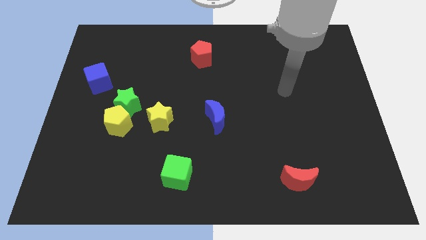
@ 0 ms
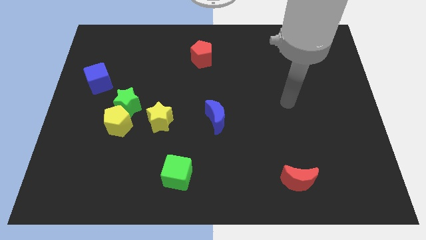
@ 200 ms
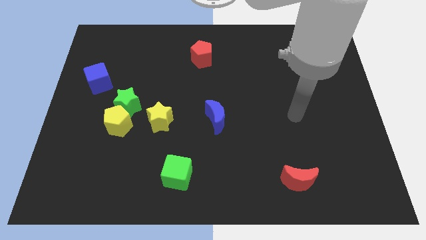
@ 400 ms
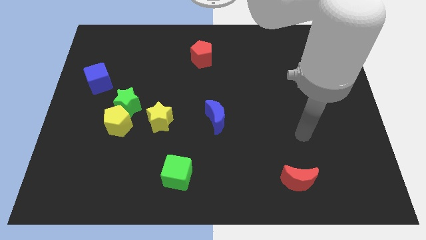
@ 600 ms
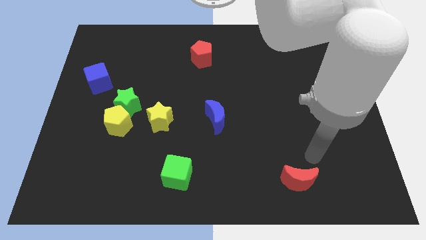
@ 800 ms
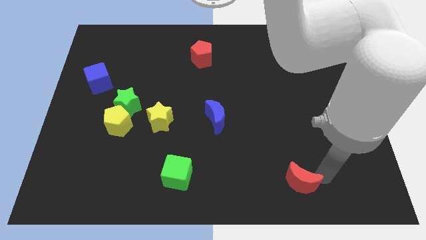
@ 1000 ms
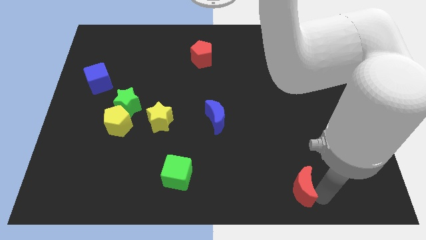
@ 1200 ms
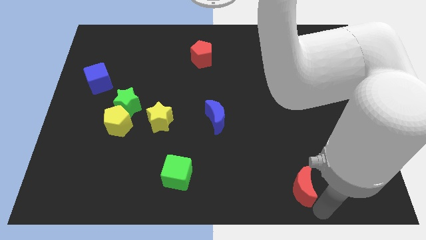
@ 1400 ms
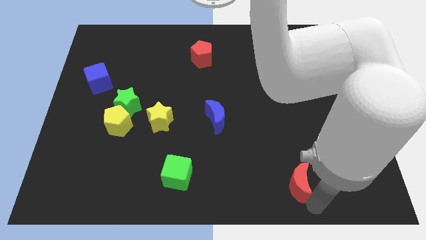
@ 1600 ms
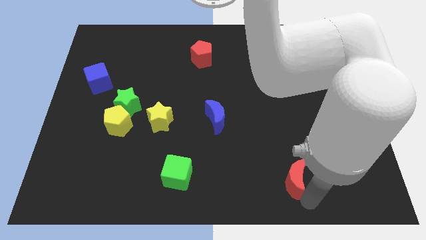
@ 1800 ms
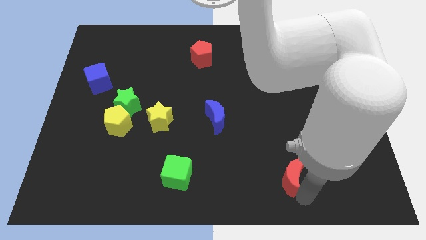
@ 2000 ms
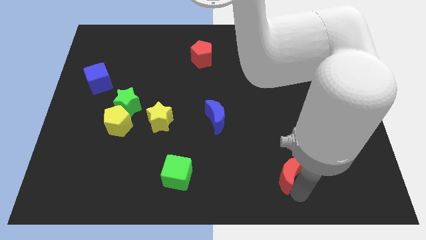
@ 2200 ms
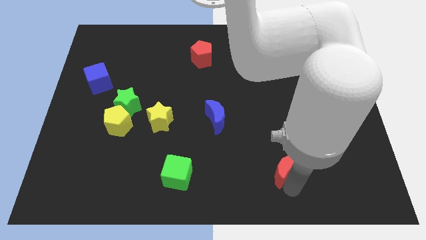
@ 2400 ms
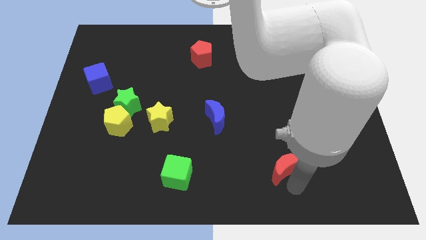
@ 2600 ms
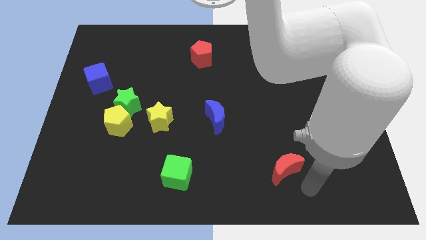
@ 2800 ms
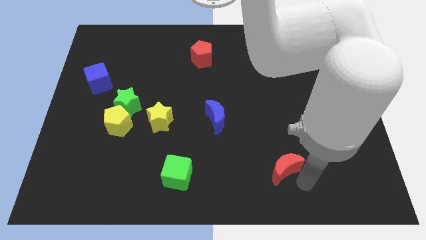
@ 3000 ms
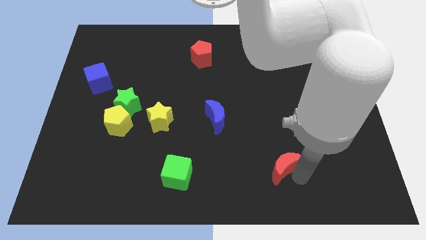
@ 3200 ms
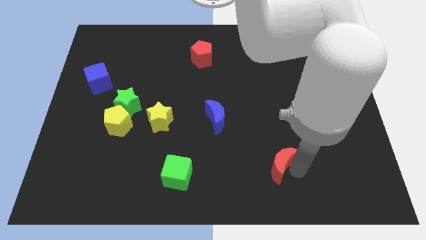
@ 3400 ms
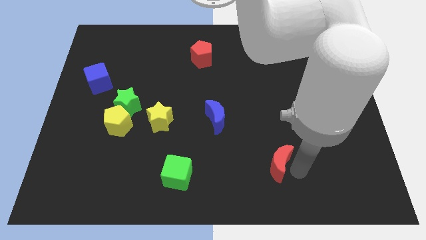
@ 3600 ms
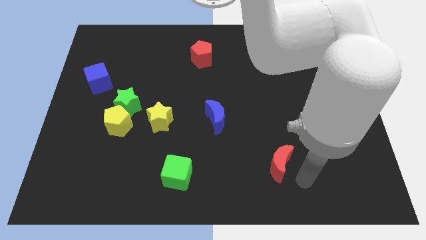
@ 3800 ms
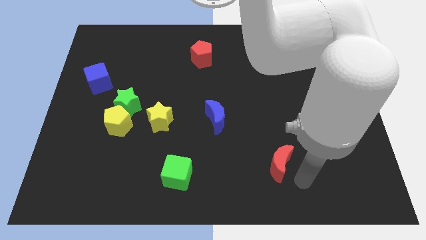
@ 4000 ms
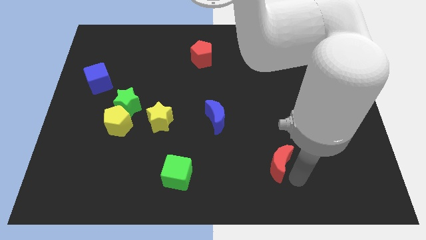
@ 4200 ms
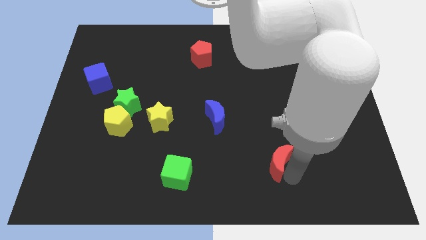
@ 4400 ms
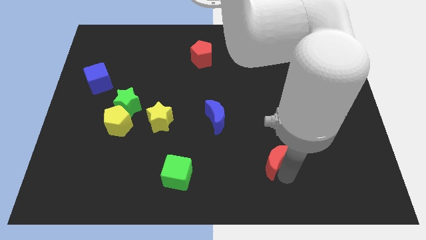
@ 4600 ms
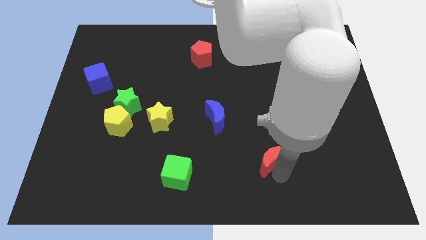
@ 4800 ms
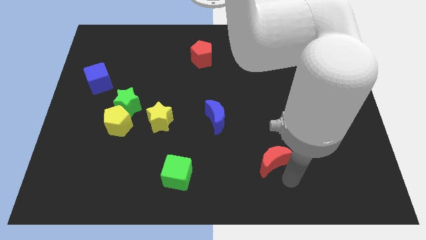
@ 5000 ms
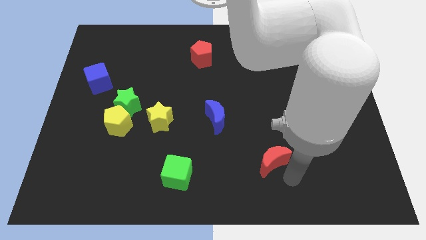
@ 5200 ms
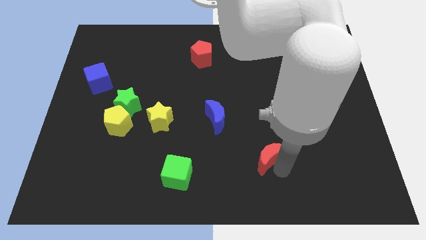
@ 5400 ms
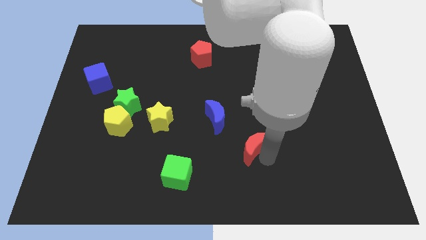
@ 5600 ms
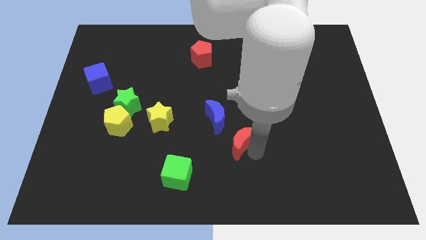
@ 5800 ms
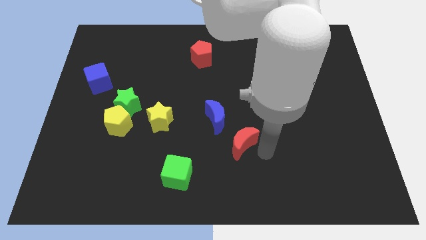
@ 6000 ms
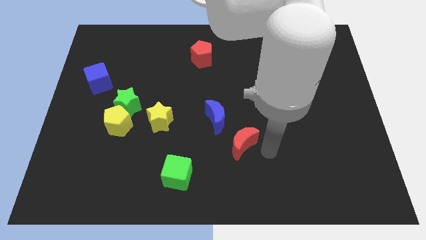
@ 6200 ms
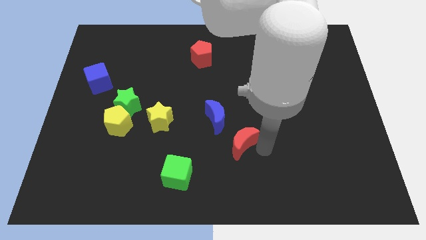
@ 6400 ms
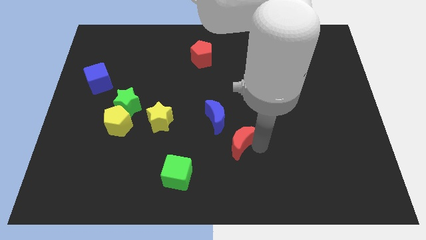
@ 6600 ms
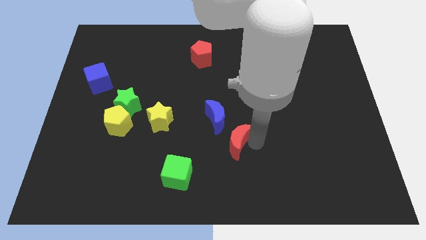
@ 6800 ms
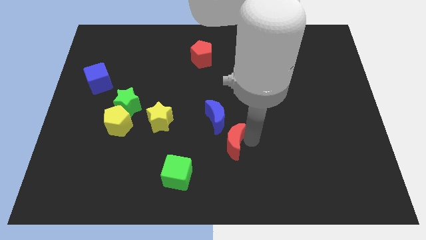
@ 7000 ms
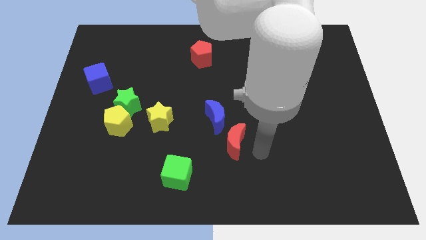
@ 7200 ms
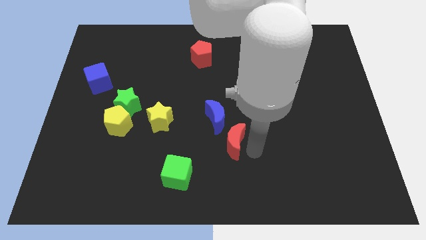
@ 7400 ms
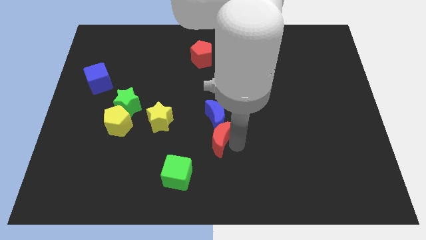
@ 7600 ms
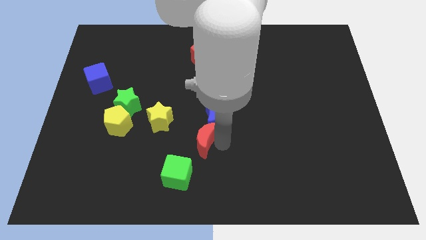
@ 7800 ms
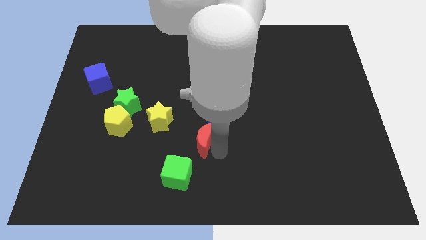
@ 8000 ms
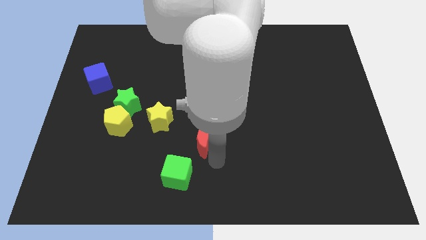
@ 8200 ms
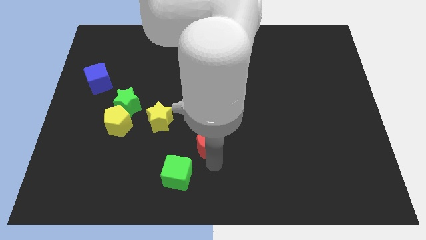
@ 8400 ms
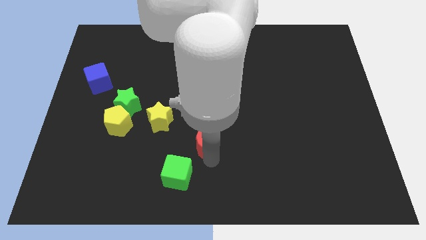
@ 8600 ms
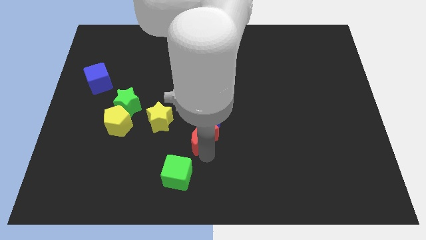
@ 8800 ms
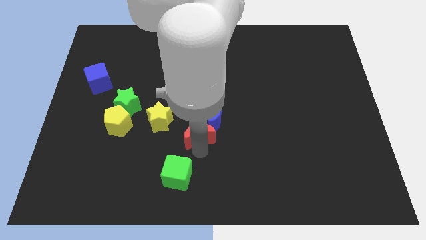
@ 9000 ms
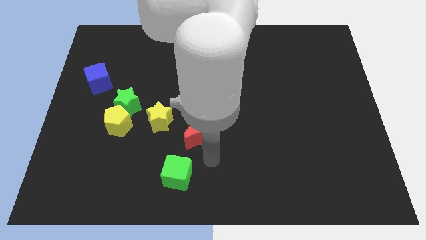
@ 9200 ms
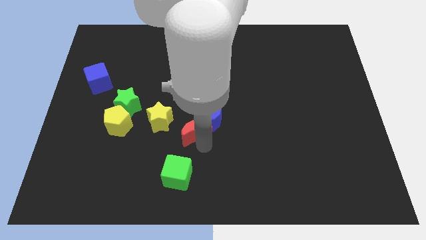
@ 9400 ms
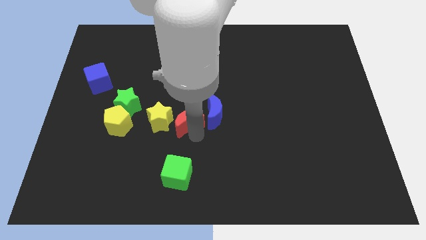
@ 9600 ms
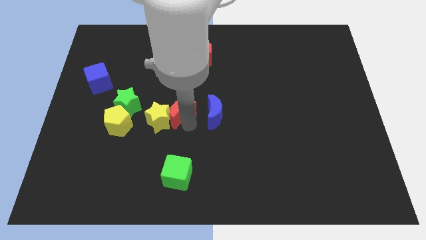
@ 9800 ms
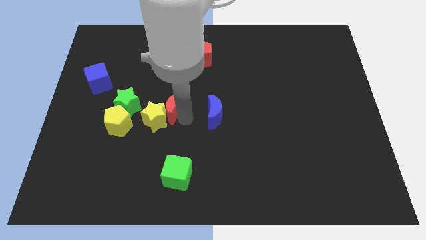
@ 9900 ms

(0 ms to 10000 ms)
put the red moon above the yellow star

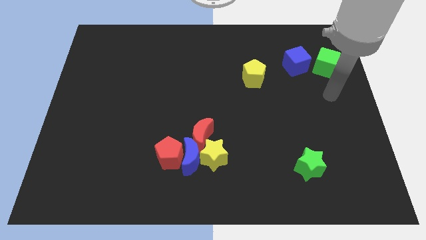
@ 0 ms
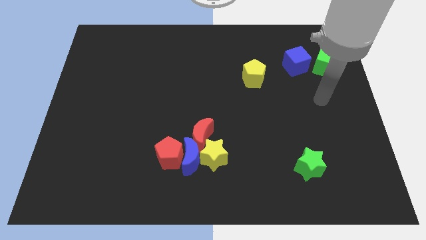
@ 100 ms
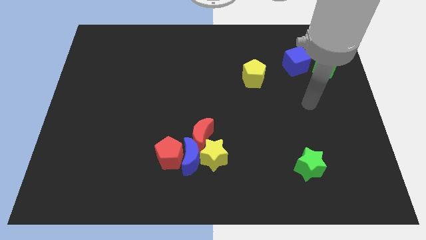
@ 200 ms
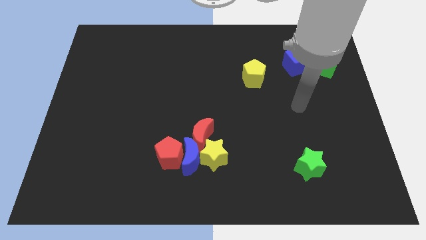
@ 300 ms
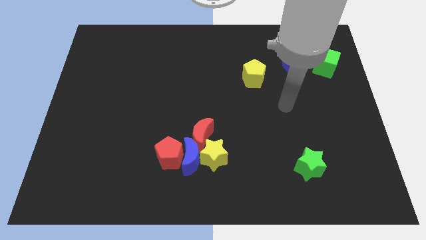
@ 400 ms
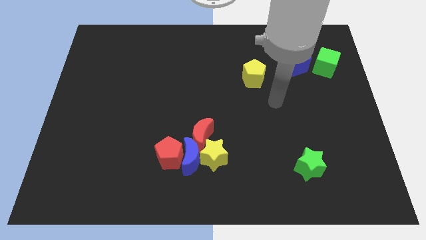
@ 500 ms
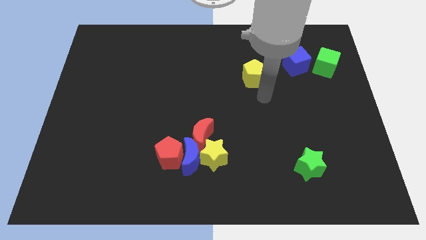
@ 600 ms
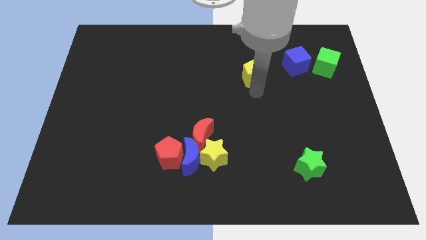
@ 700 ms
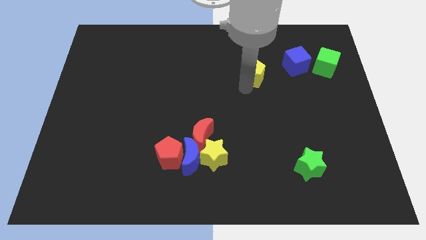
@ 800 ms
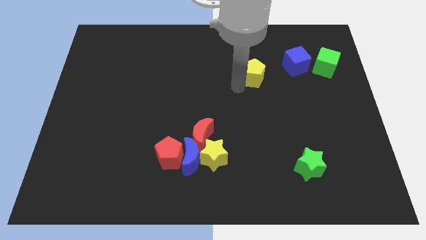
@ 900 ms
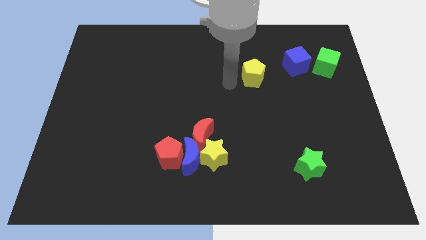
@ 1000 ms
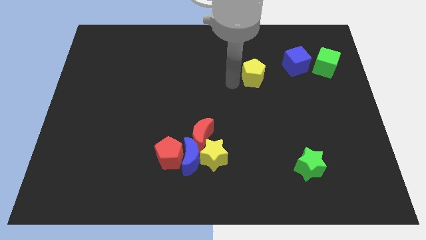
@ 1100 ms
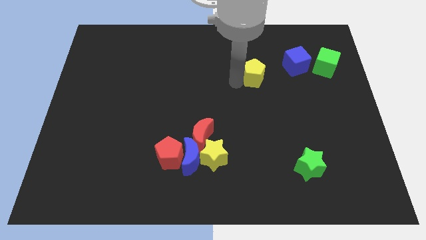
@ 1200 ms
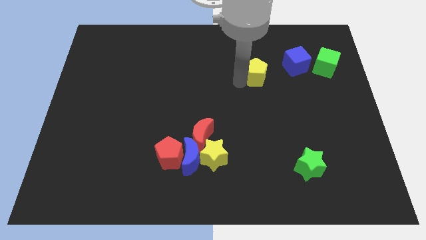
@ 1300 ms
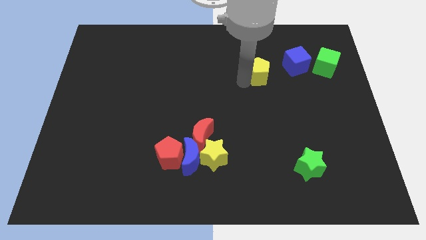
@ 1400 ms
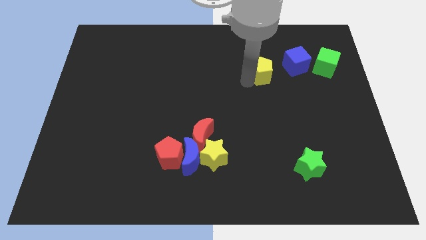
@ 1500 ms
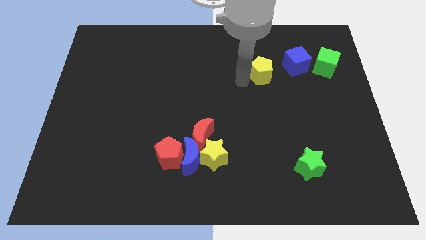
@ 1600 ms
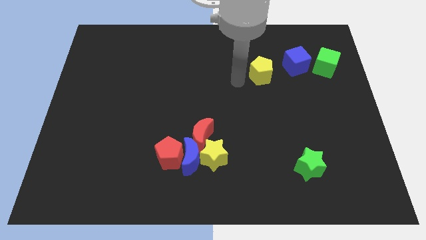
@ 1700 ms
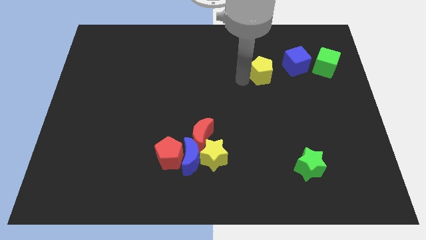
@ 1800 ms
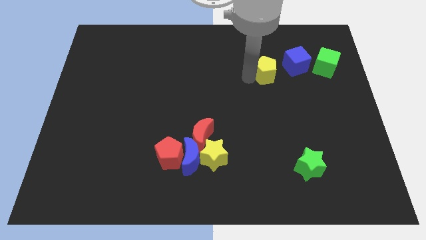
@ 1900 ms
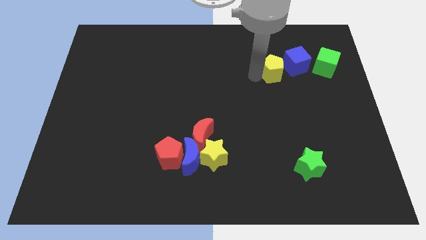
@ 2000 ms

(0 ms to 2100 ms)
slide the yellow pentagon just left of the green cube

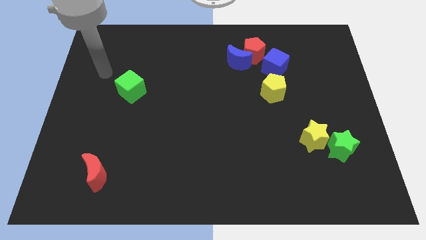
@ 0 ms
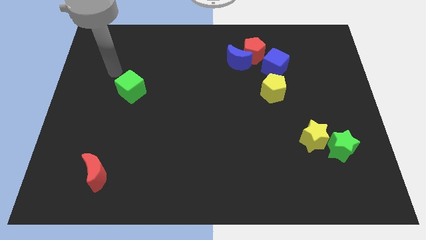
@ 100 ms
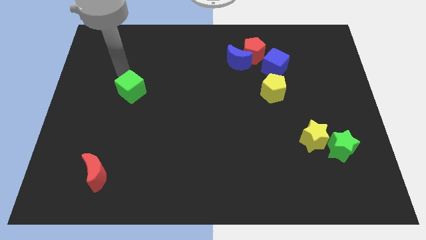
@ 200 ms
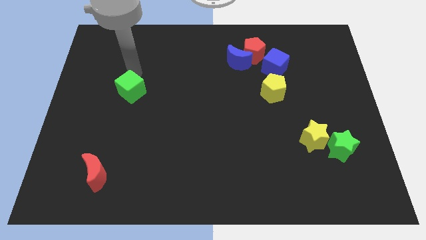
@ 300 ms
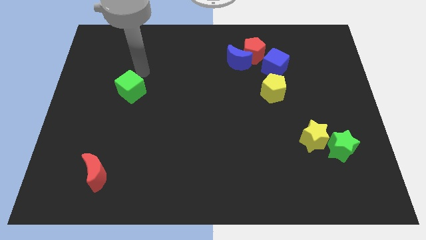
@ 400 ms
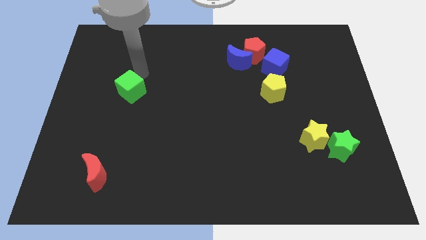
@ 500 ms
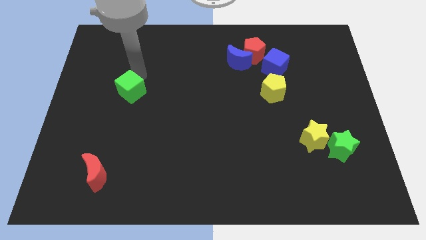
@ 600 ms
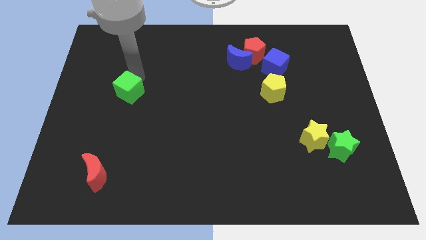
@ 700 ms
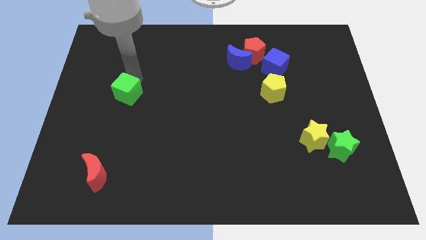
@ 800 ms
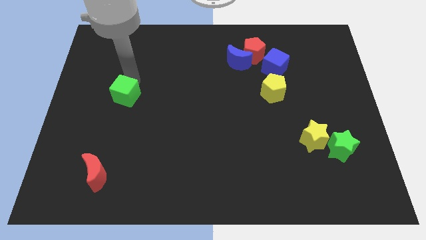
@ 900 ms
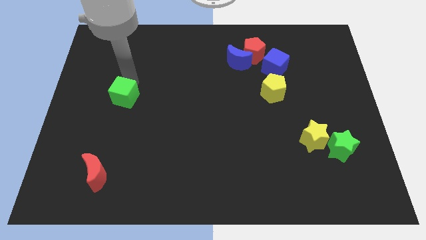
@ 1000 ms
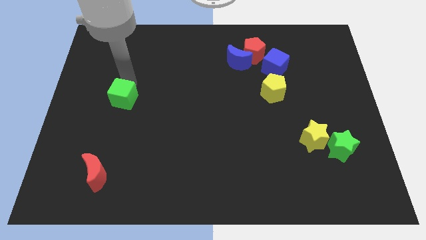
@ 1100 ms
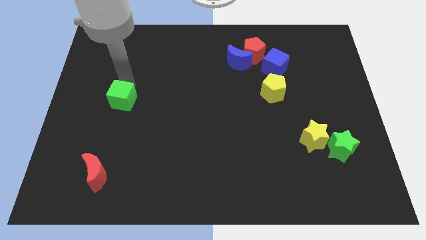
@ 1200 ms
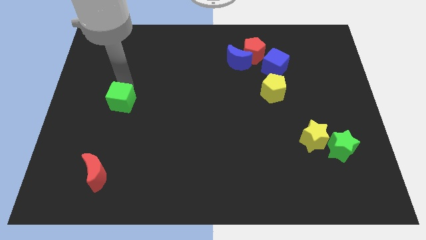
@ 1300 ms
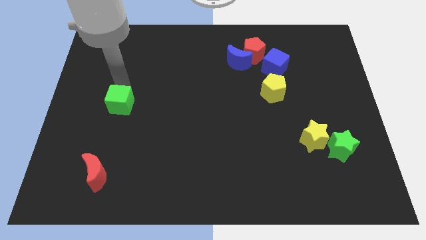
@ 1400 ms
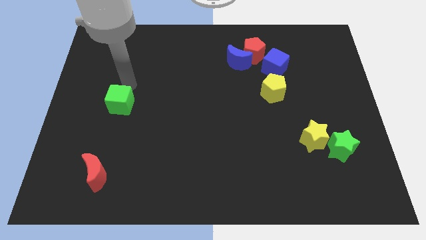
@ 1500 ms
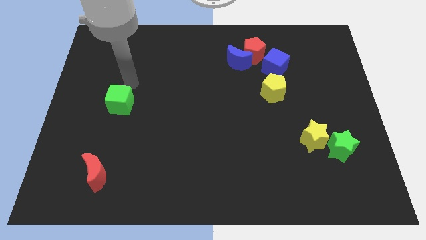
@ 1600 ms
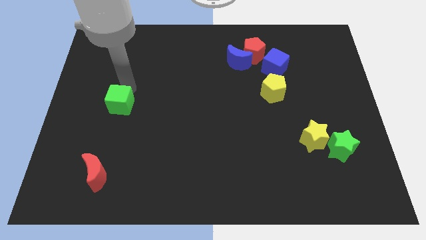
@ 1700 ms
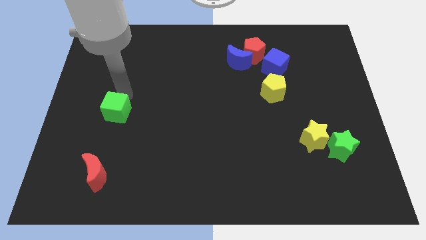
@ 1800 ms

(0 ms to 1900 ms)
put the green cube above the red moon
